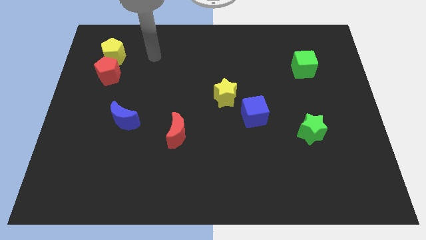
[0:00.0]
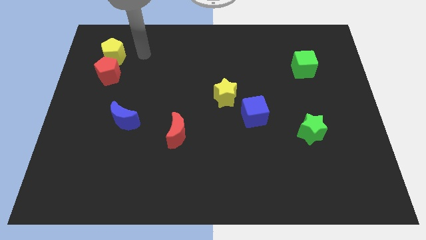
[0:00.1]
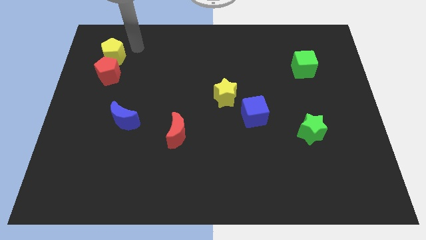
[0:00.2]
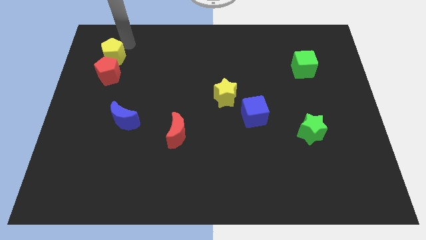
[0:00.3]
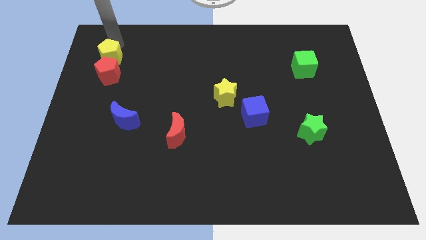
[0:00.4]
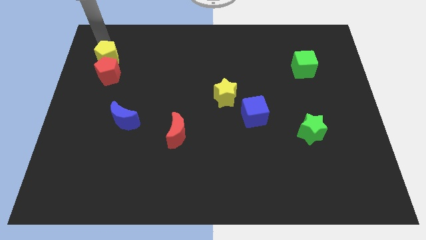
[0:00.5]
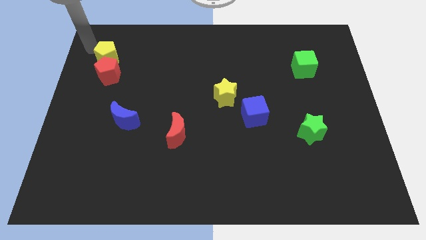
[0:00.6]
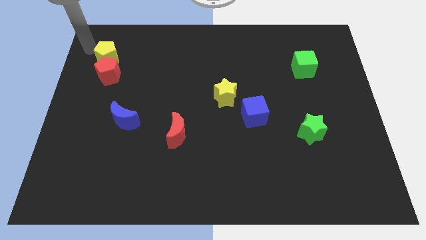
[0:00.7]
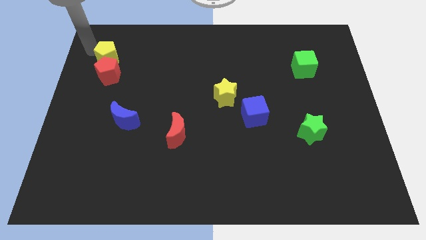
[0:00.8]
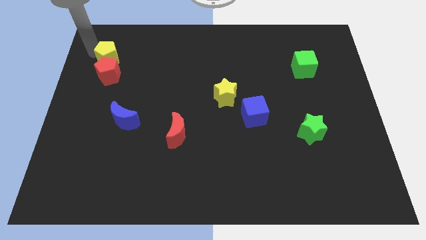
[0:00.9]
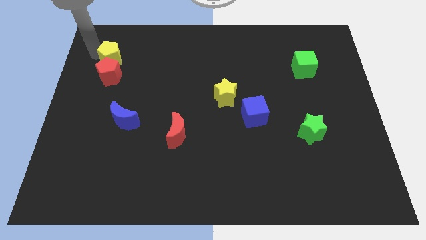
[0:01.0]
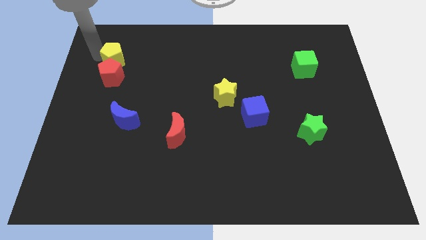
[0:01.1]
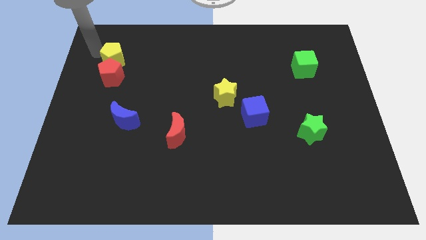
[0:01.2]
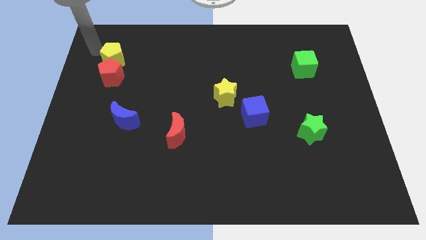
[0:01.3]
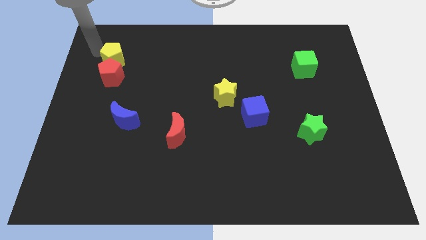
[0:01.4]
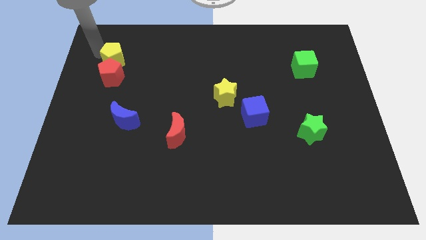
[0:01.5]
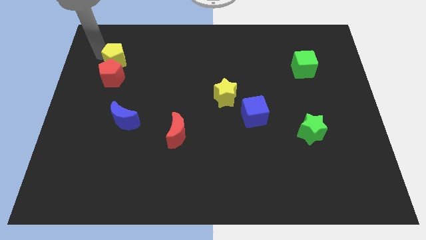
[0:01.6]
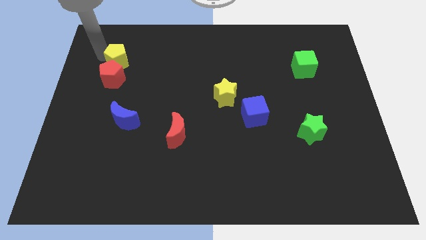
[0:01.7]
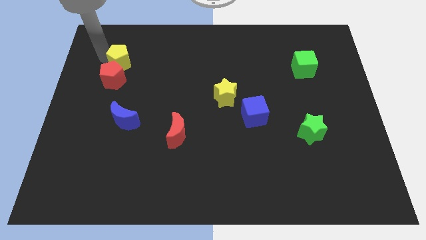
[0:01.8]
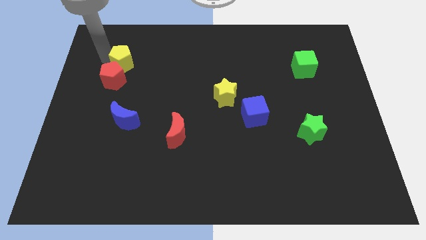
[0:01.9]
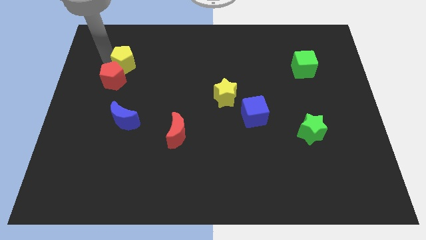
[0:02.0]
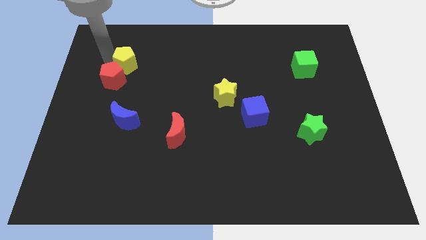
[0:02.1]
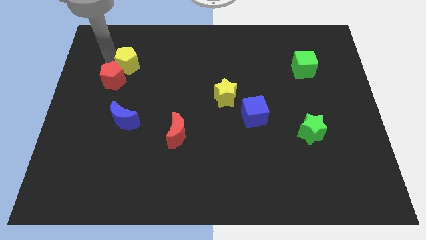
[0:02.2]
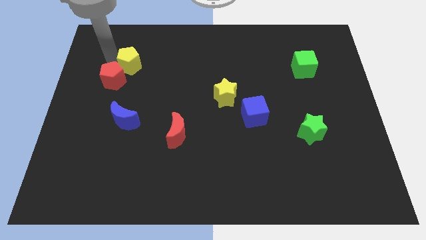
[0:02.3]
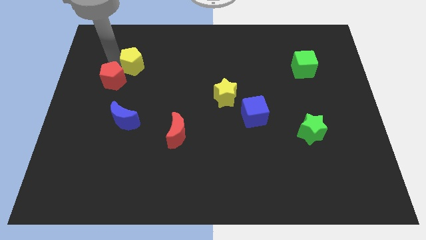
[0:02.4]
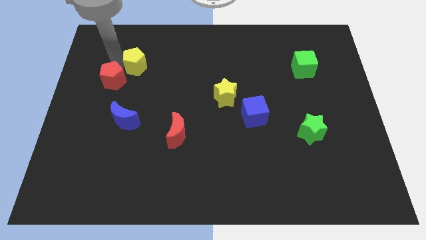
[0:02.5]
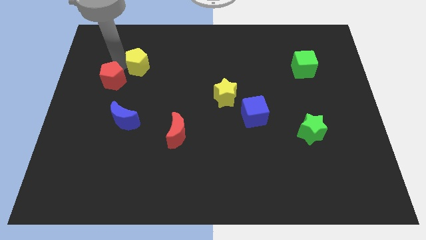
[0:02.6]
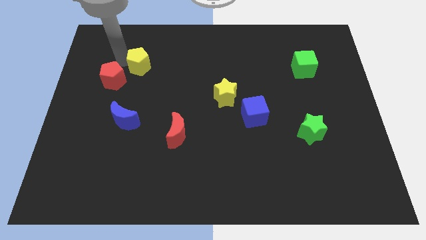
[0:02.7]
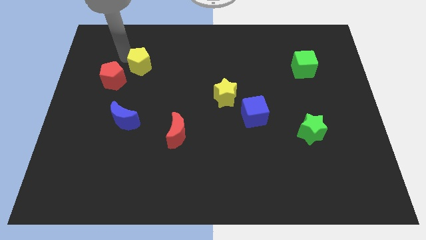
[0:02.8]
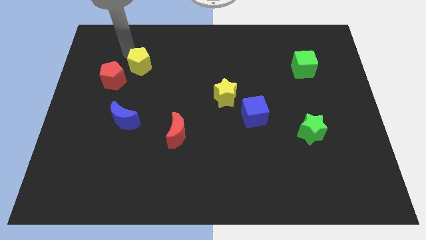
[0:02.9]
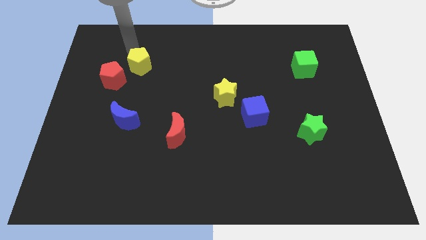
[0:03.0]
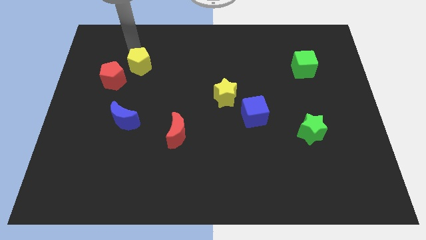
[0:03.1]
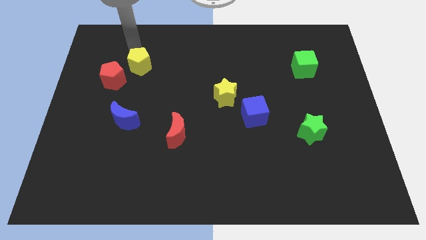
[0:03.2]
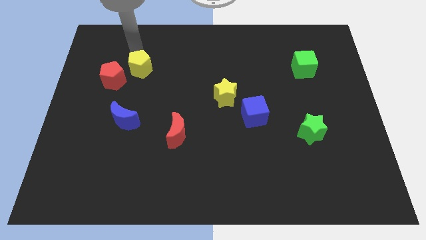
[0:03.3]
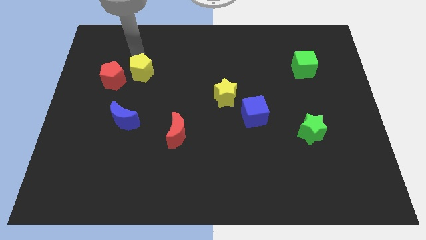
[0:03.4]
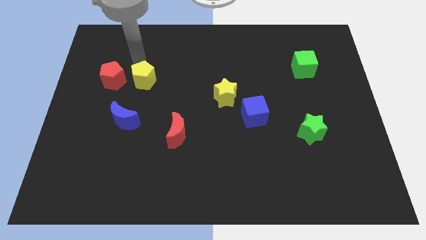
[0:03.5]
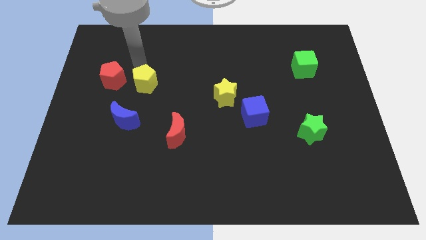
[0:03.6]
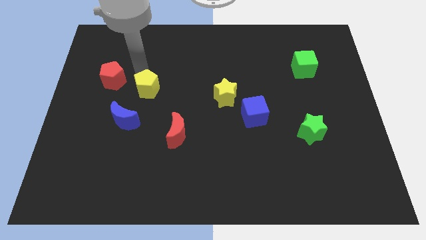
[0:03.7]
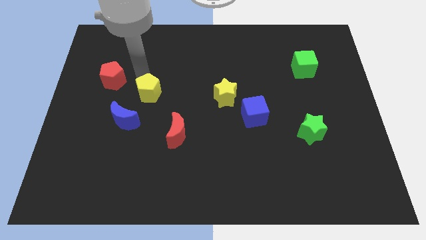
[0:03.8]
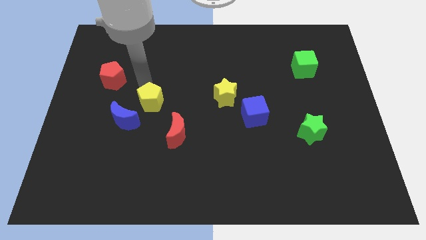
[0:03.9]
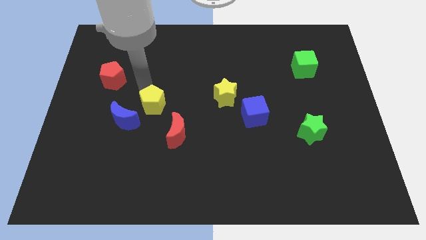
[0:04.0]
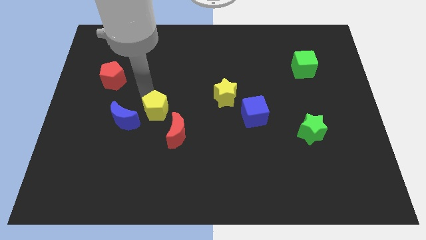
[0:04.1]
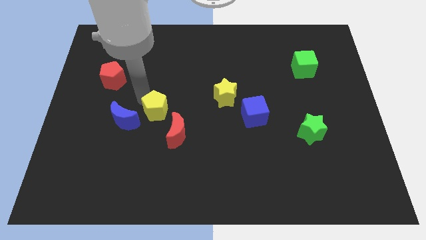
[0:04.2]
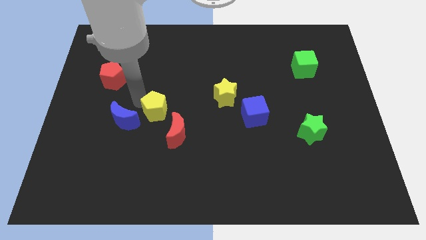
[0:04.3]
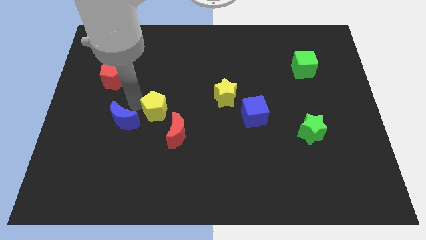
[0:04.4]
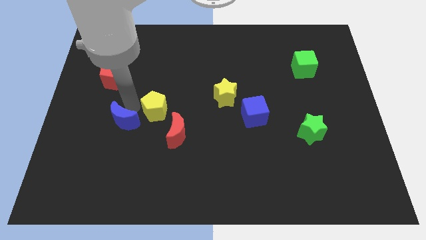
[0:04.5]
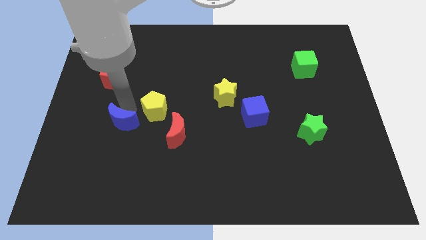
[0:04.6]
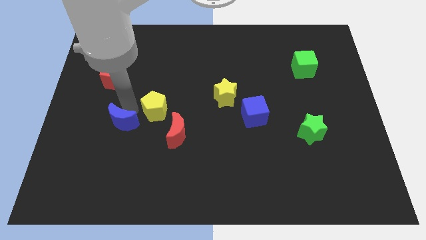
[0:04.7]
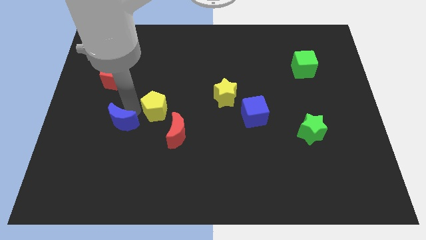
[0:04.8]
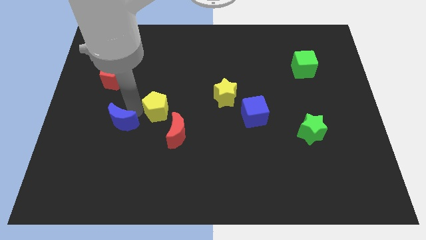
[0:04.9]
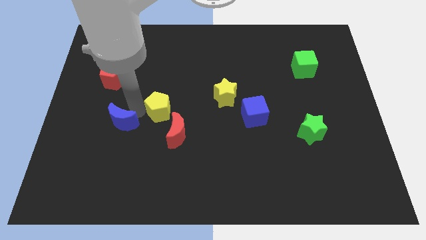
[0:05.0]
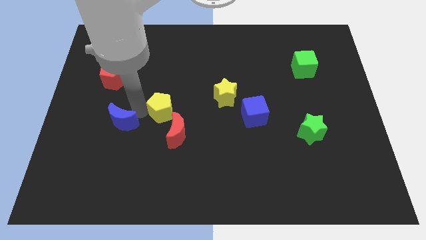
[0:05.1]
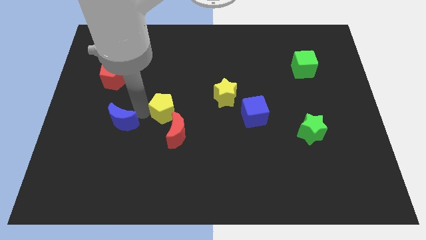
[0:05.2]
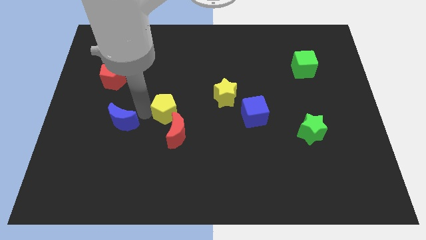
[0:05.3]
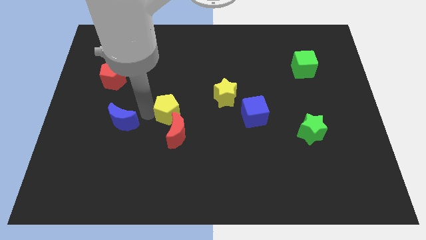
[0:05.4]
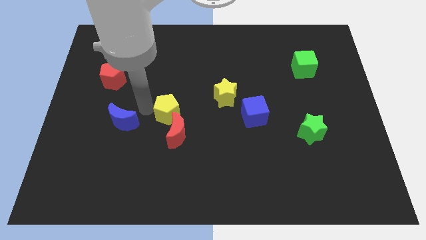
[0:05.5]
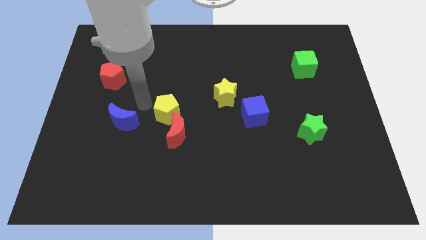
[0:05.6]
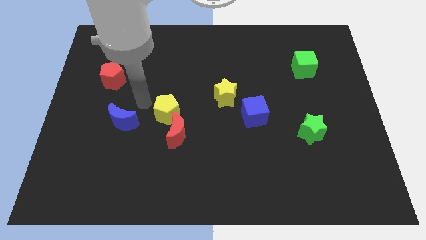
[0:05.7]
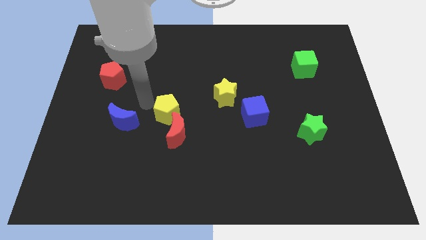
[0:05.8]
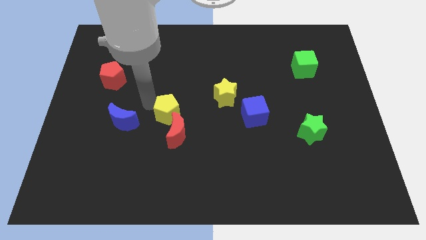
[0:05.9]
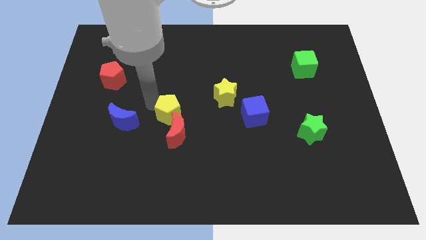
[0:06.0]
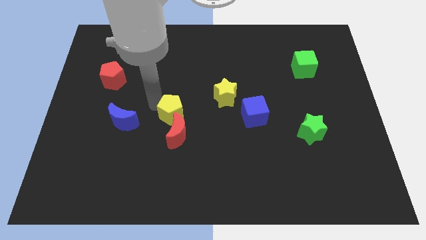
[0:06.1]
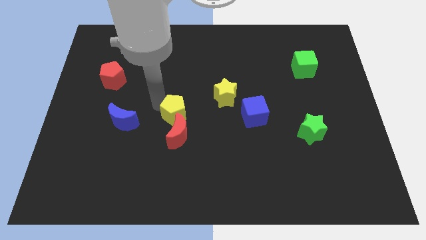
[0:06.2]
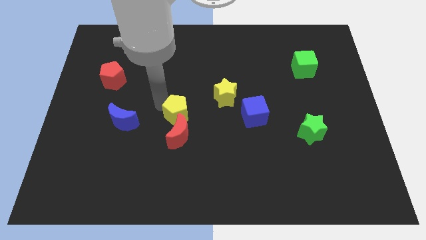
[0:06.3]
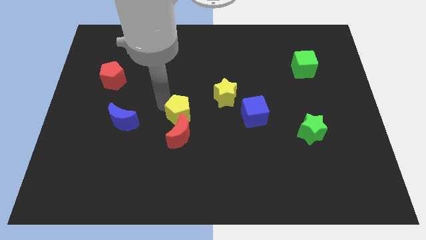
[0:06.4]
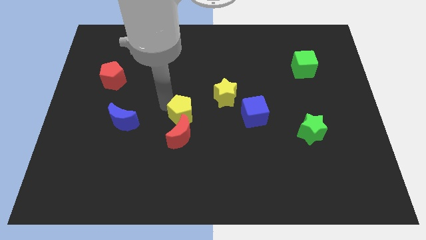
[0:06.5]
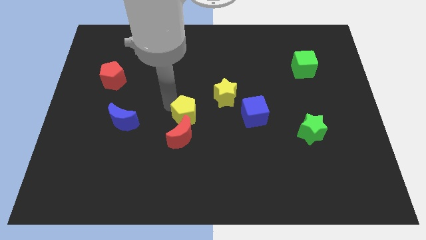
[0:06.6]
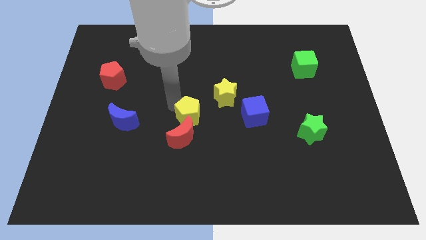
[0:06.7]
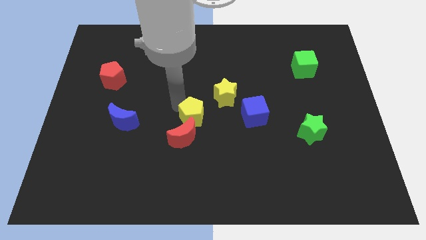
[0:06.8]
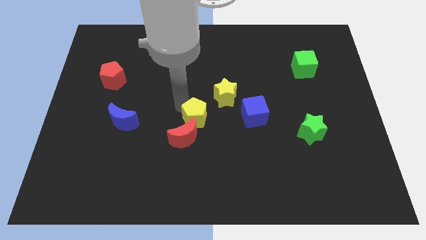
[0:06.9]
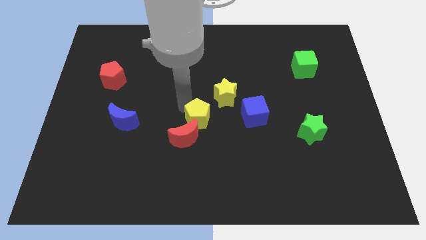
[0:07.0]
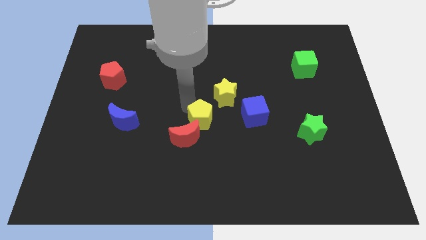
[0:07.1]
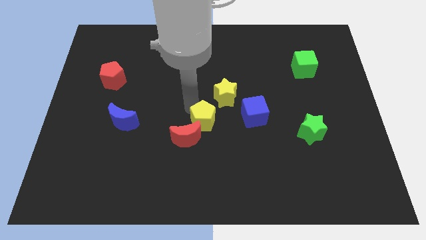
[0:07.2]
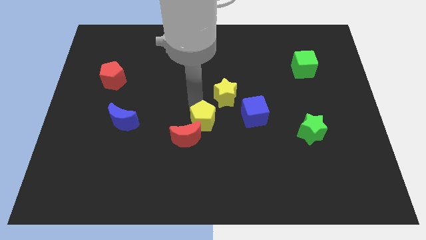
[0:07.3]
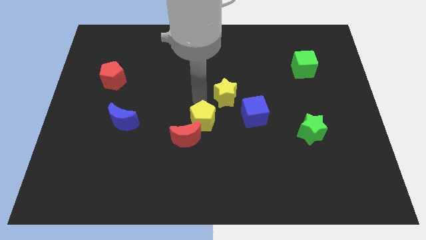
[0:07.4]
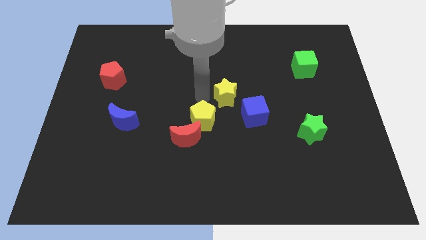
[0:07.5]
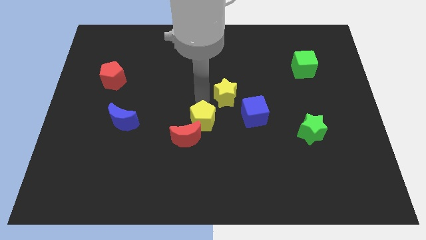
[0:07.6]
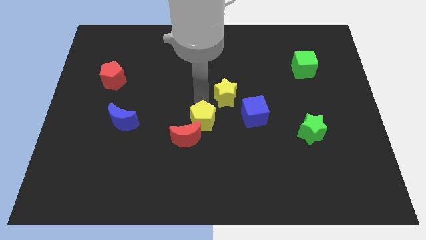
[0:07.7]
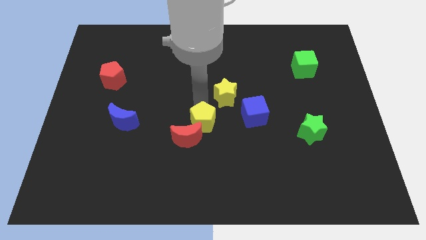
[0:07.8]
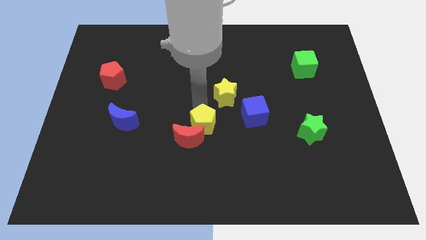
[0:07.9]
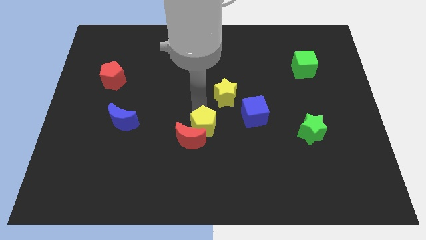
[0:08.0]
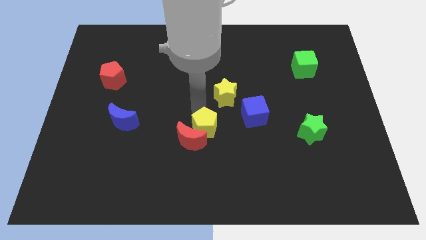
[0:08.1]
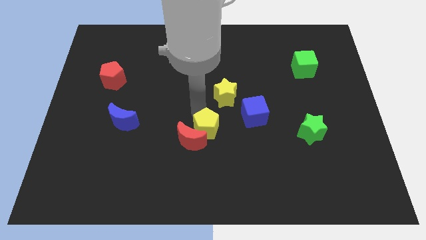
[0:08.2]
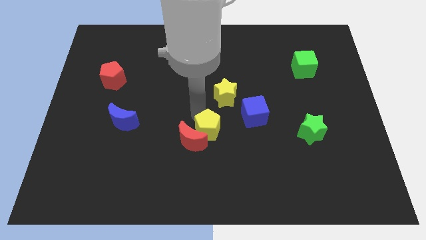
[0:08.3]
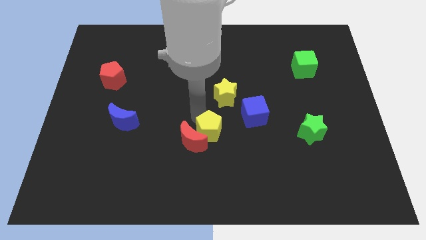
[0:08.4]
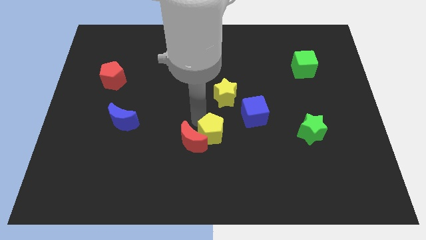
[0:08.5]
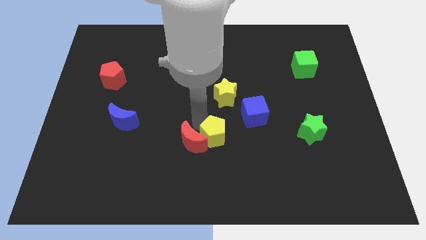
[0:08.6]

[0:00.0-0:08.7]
move the yellow pentagon to the bottom right of the red moon
